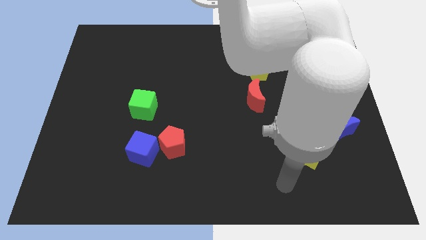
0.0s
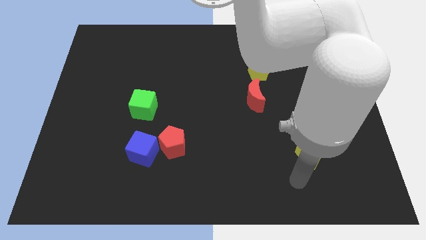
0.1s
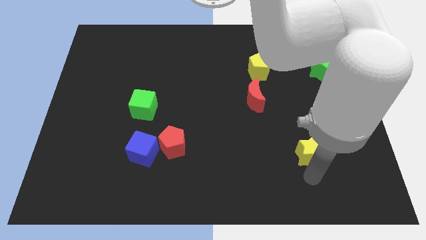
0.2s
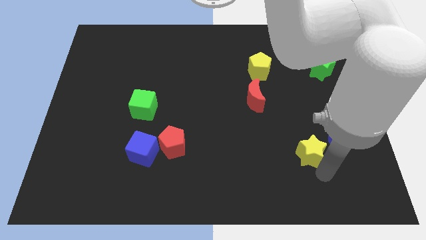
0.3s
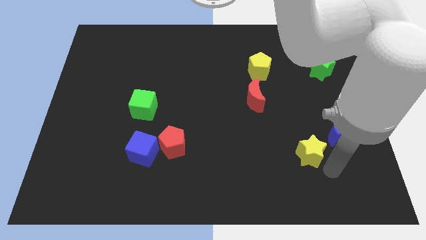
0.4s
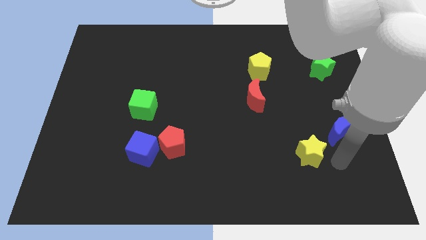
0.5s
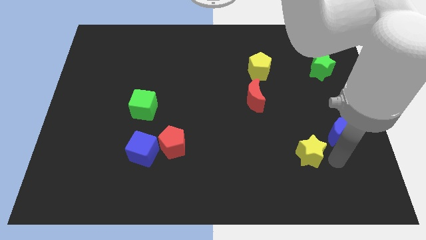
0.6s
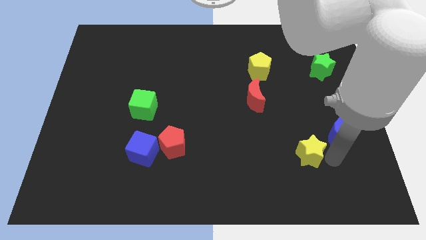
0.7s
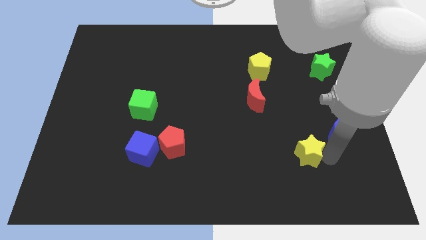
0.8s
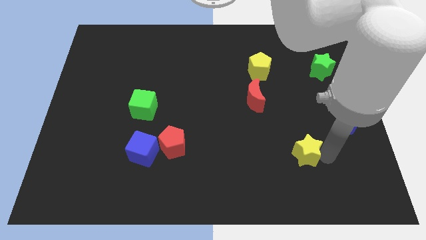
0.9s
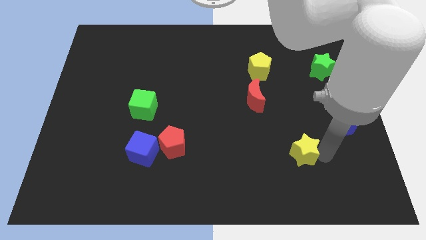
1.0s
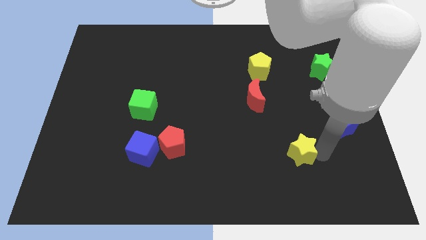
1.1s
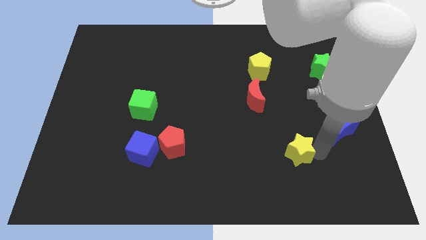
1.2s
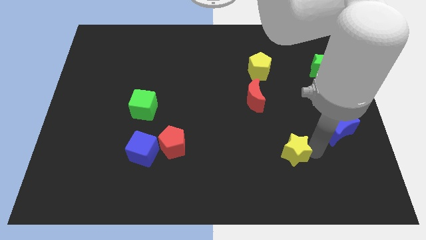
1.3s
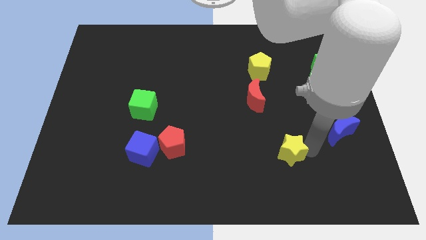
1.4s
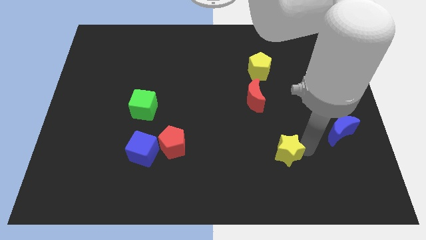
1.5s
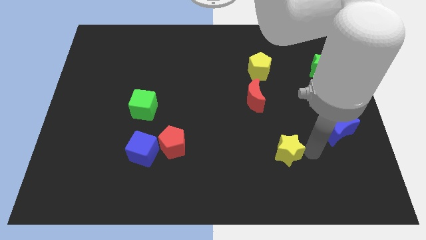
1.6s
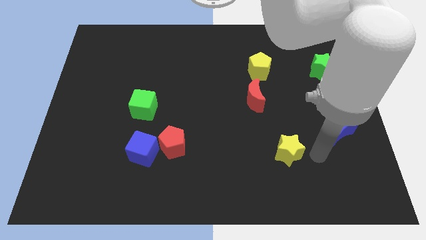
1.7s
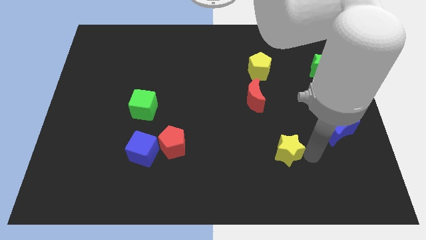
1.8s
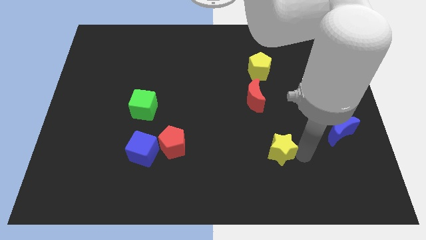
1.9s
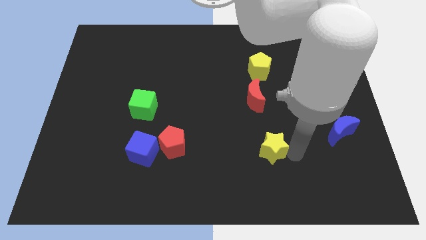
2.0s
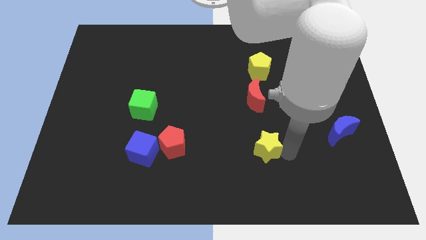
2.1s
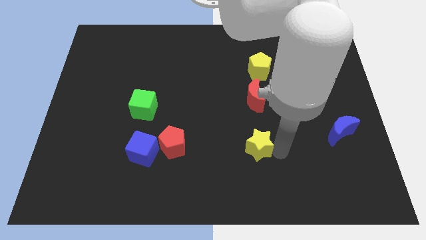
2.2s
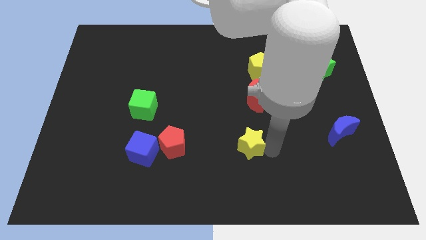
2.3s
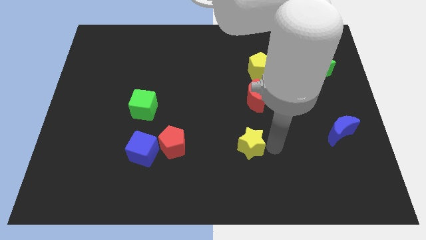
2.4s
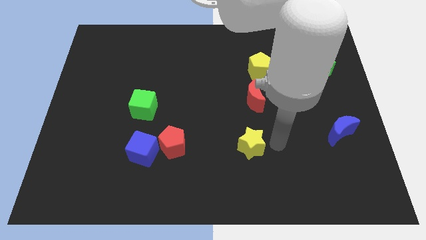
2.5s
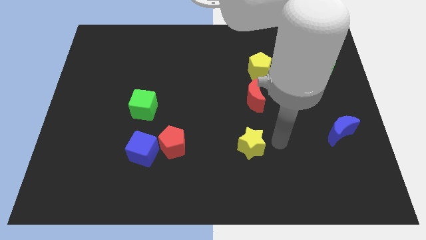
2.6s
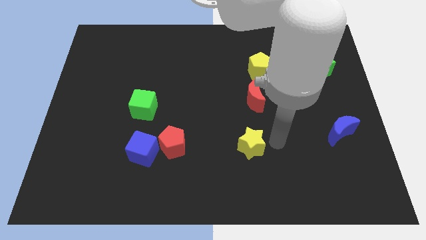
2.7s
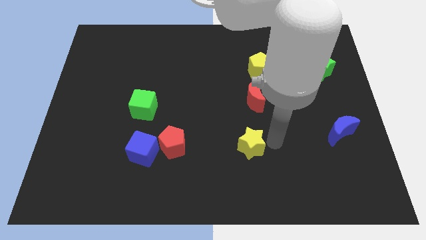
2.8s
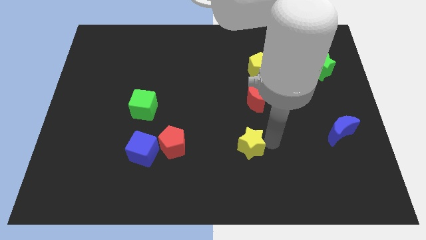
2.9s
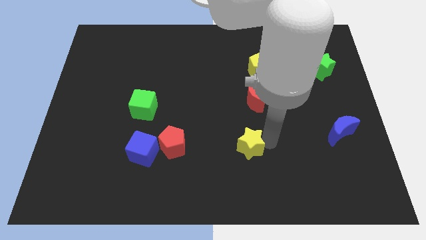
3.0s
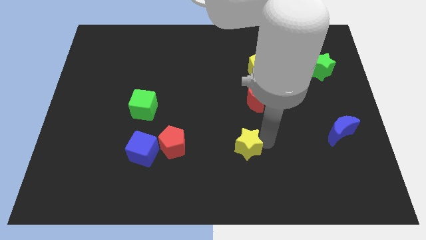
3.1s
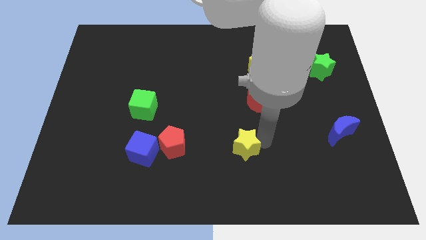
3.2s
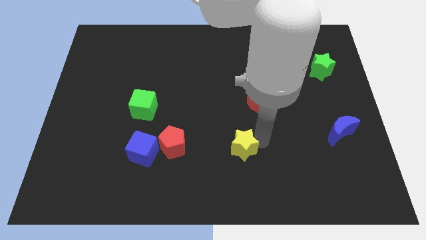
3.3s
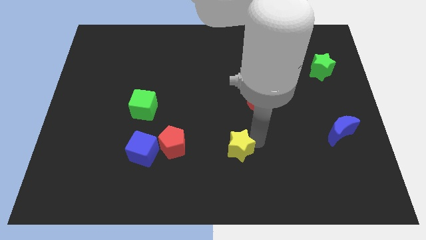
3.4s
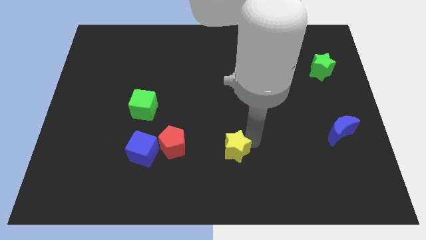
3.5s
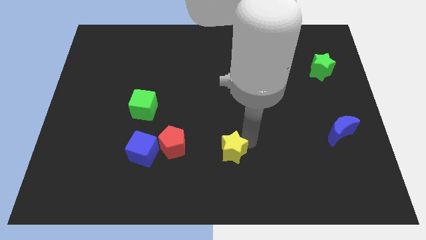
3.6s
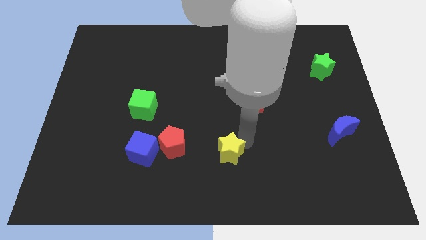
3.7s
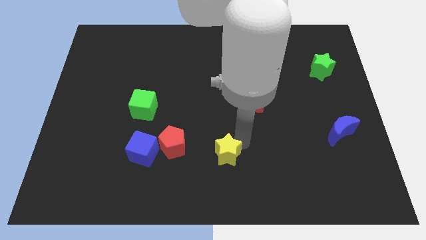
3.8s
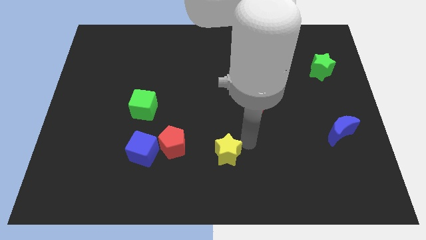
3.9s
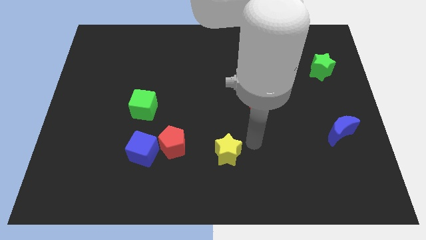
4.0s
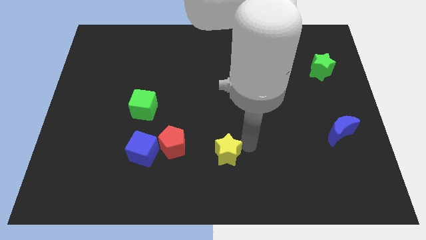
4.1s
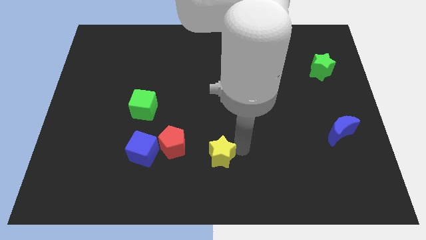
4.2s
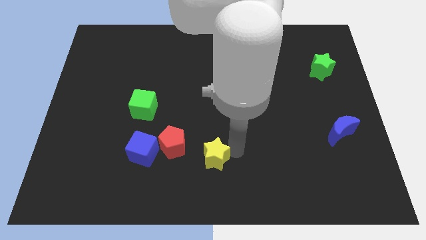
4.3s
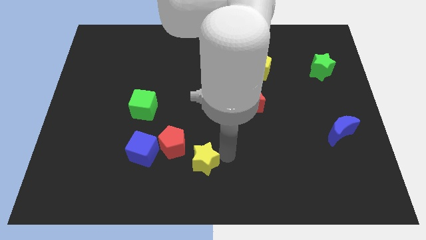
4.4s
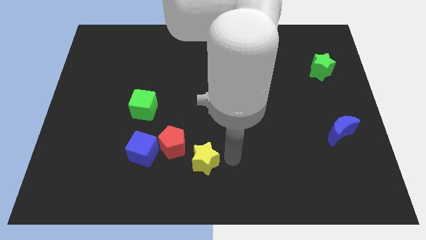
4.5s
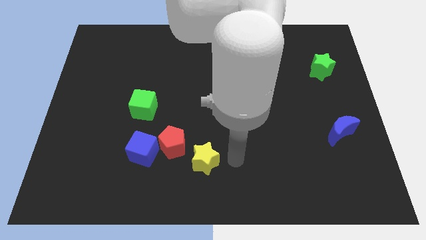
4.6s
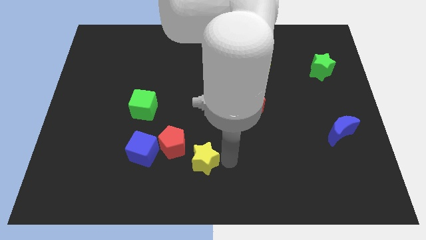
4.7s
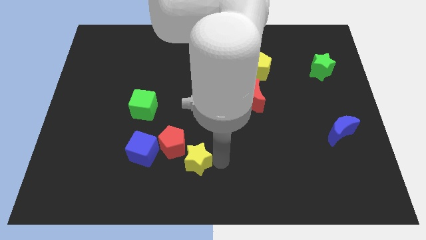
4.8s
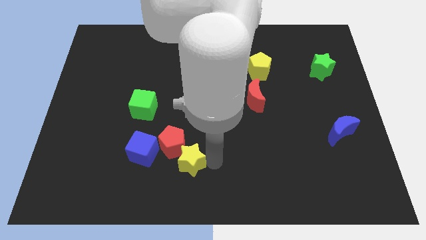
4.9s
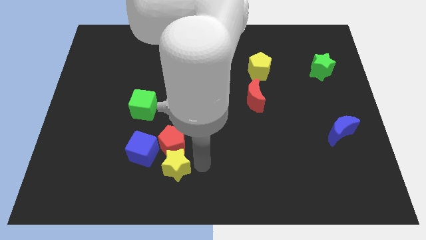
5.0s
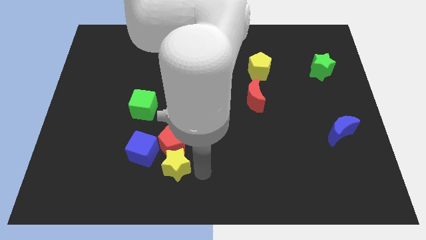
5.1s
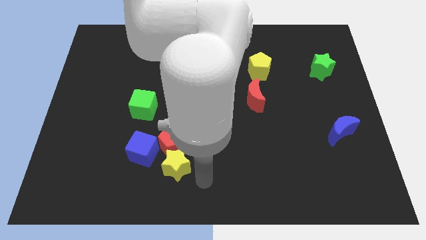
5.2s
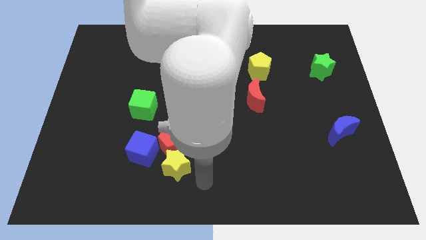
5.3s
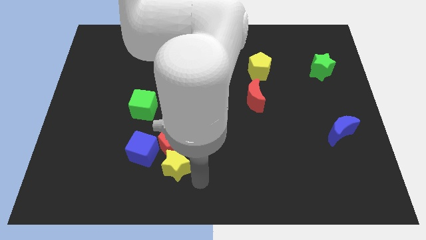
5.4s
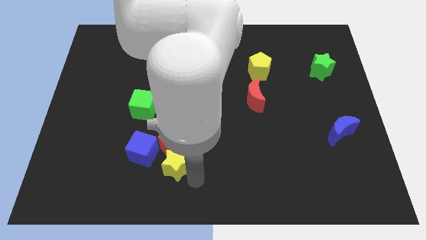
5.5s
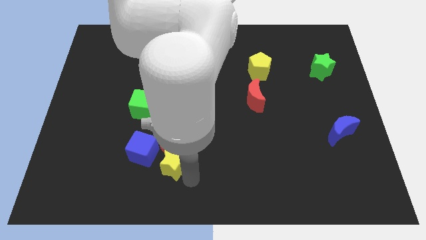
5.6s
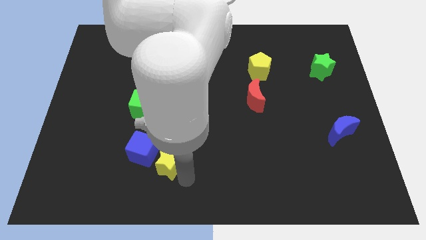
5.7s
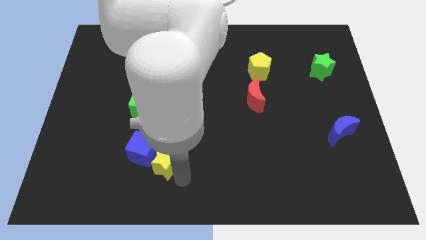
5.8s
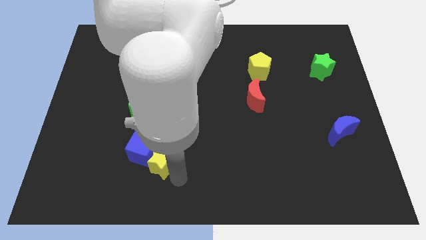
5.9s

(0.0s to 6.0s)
push the yellow star towards the blue cube
